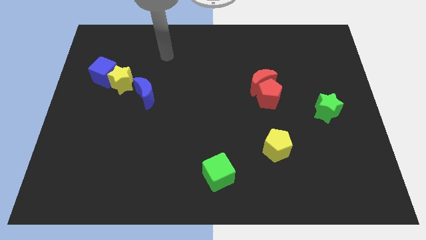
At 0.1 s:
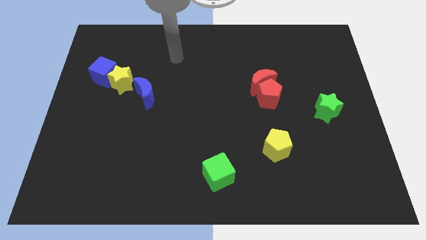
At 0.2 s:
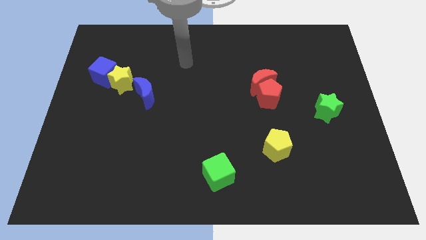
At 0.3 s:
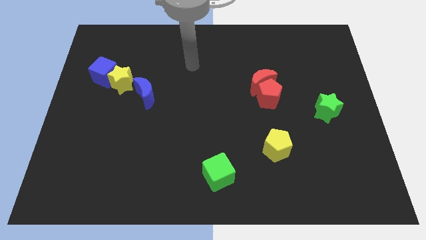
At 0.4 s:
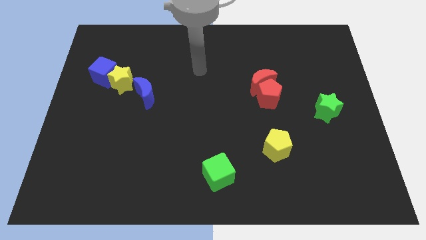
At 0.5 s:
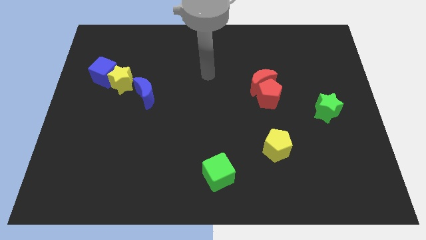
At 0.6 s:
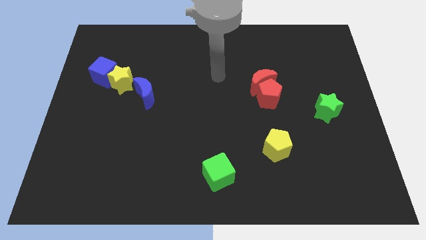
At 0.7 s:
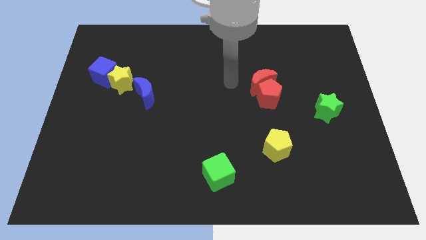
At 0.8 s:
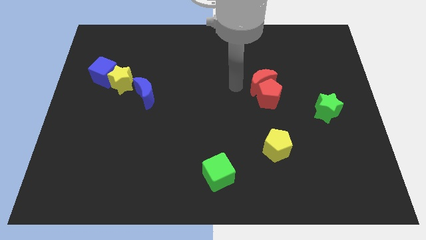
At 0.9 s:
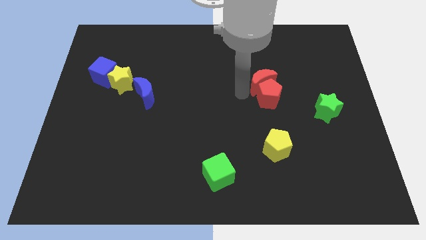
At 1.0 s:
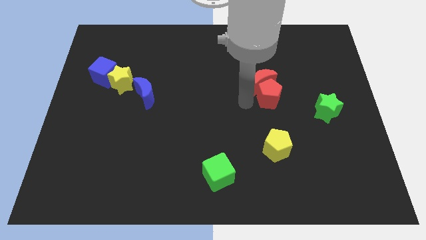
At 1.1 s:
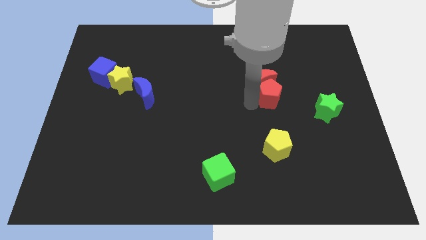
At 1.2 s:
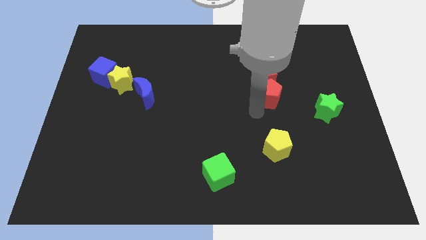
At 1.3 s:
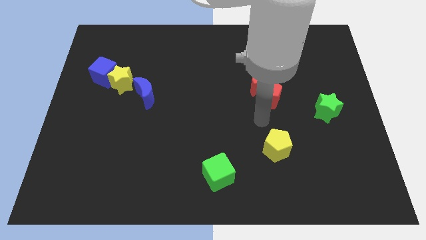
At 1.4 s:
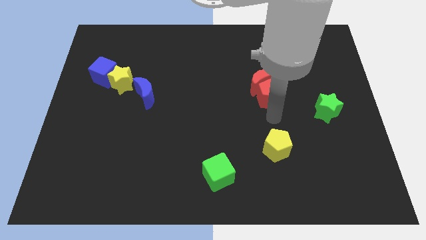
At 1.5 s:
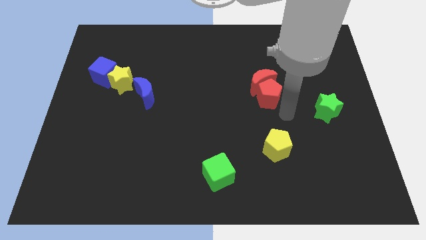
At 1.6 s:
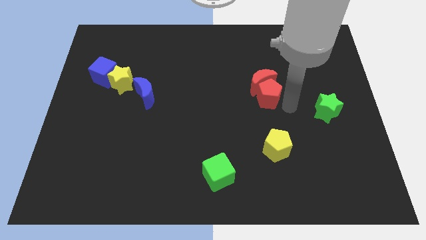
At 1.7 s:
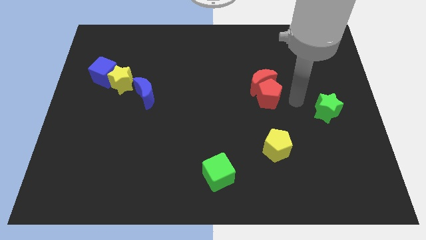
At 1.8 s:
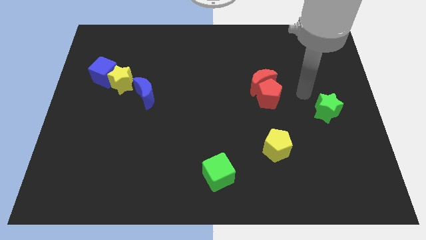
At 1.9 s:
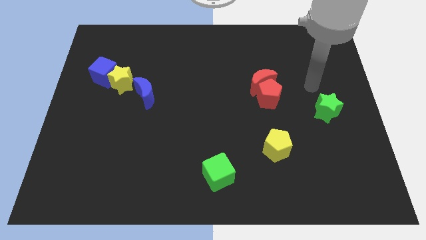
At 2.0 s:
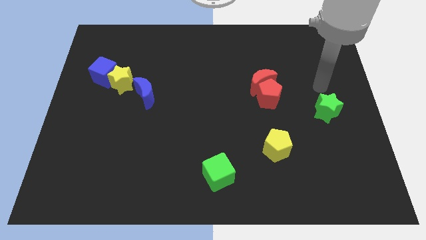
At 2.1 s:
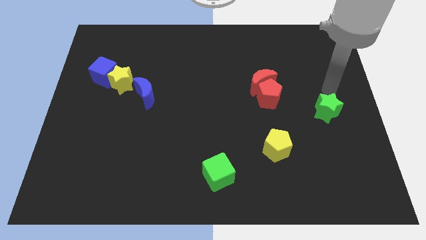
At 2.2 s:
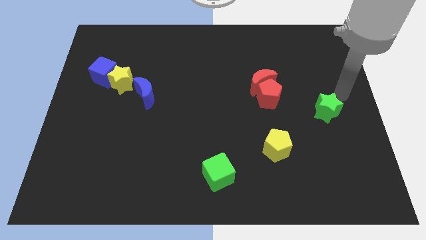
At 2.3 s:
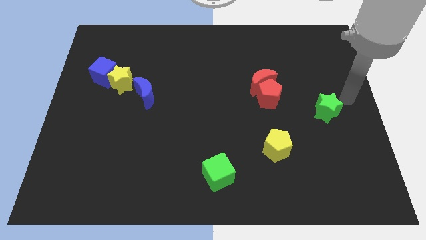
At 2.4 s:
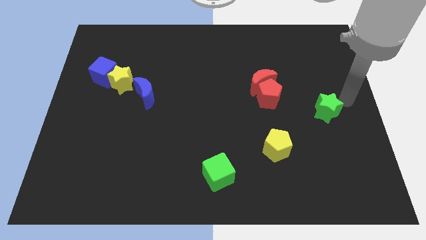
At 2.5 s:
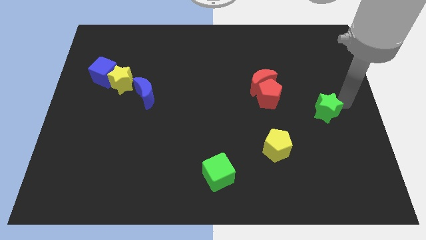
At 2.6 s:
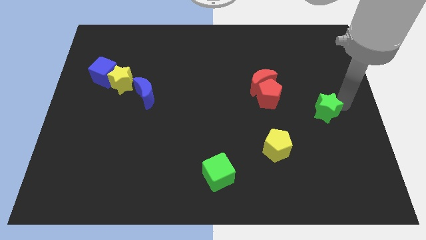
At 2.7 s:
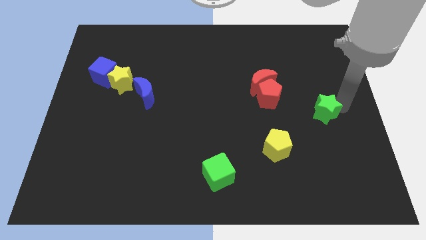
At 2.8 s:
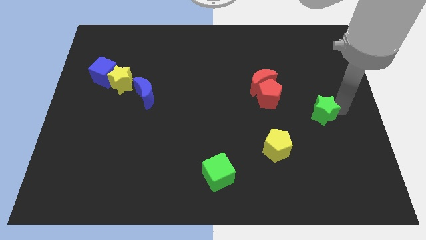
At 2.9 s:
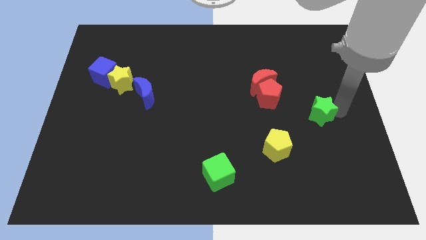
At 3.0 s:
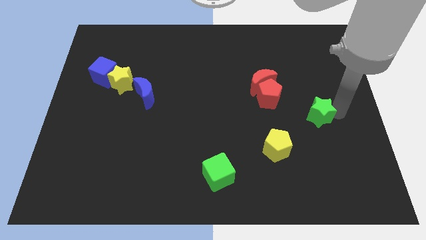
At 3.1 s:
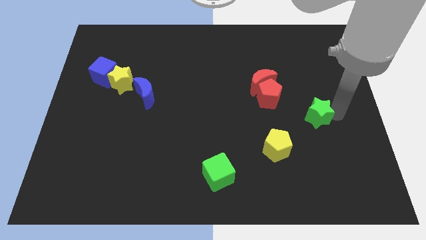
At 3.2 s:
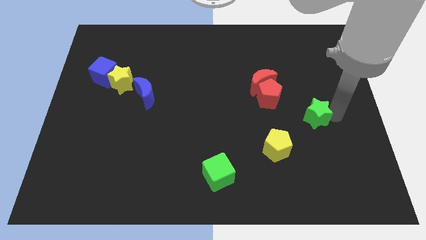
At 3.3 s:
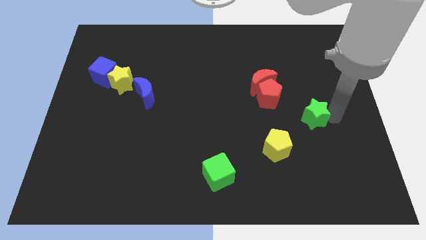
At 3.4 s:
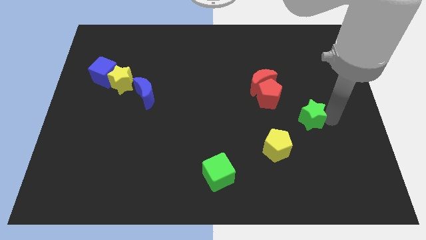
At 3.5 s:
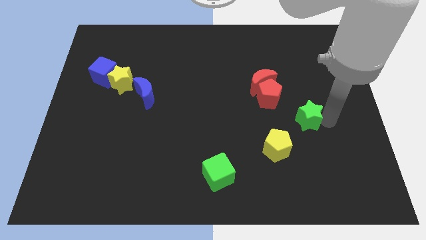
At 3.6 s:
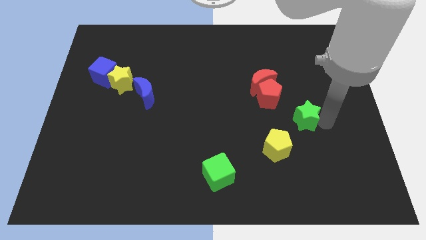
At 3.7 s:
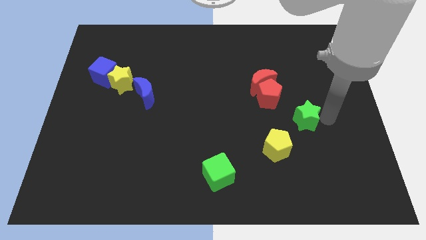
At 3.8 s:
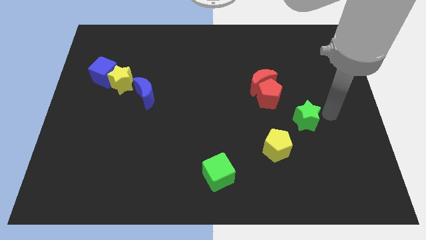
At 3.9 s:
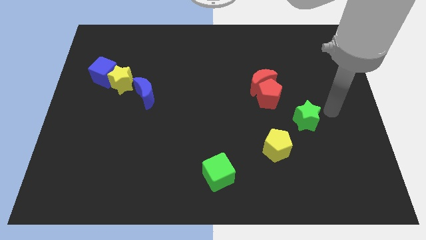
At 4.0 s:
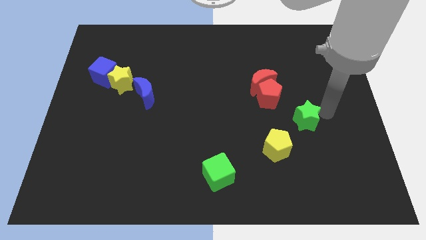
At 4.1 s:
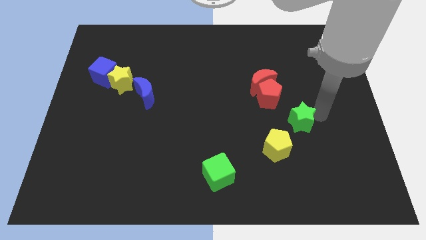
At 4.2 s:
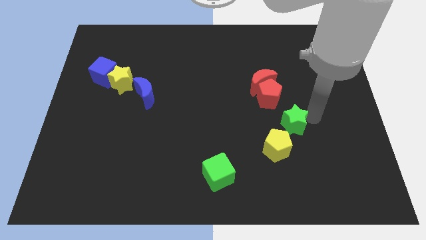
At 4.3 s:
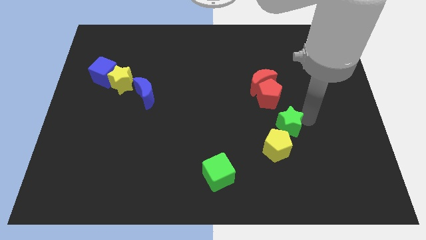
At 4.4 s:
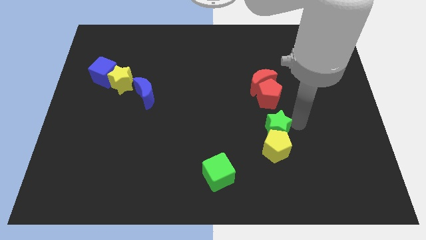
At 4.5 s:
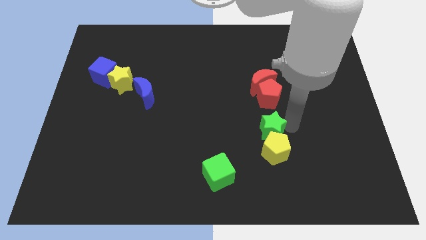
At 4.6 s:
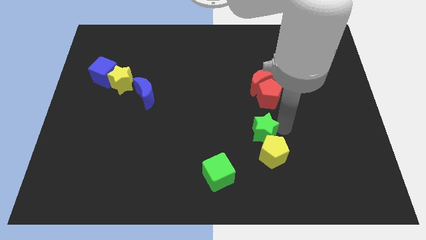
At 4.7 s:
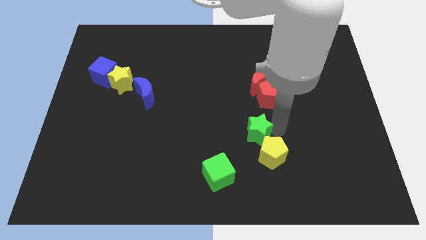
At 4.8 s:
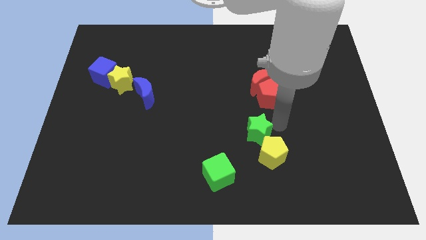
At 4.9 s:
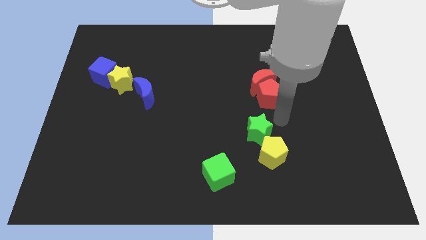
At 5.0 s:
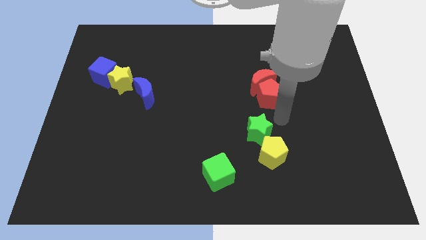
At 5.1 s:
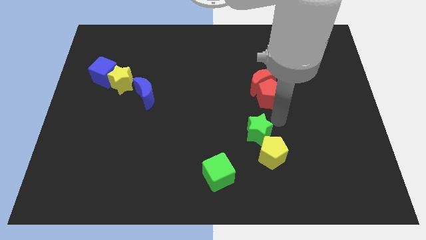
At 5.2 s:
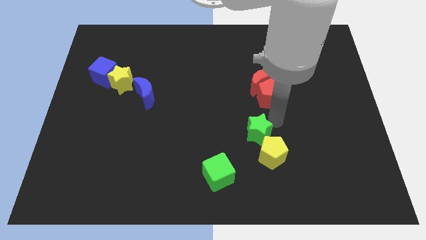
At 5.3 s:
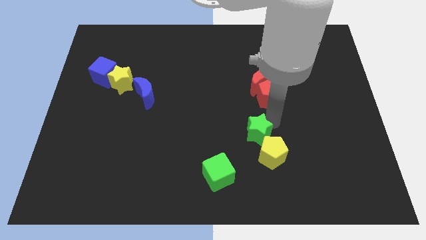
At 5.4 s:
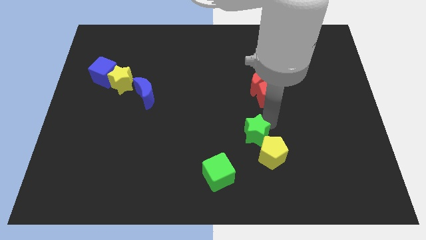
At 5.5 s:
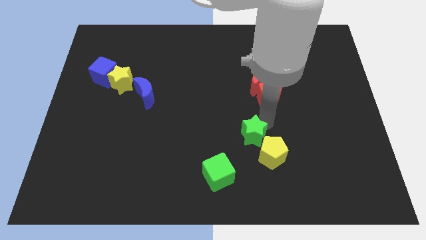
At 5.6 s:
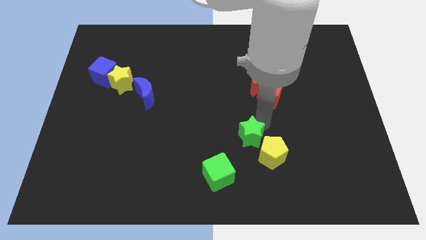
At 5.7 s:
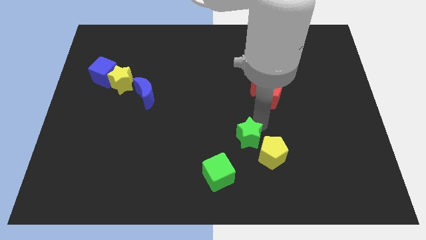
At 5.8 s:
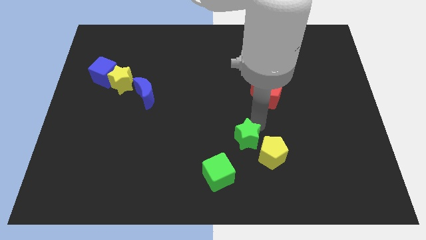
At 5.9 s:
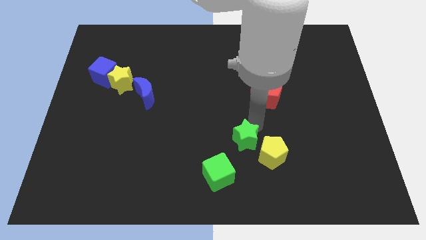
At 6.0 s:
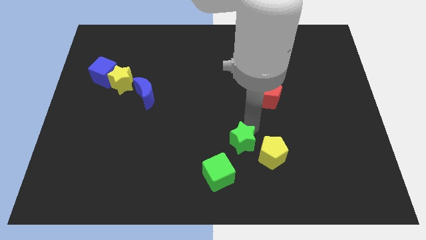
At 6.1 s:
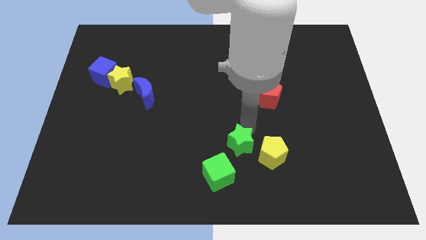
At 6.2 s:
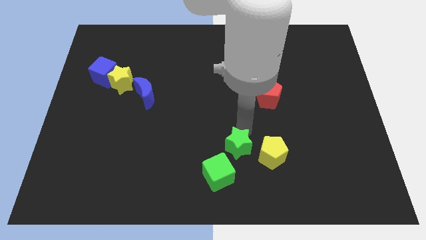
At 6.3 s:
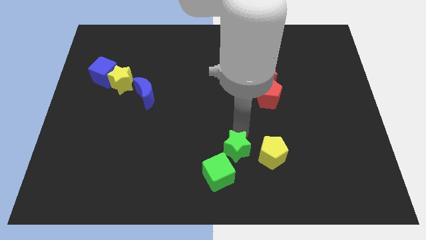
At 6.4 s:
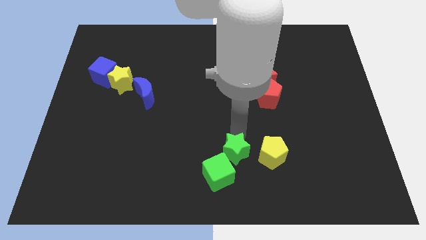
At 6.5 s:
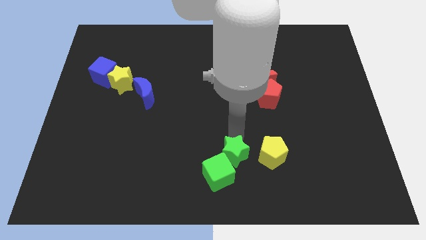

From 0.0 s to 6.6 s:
push the green star towards the green cube

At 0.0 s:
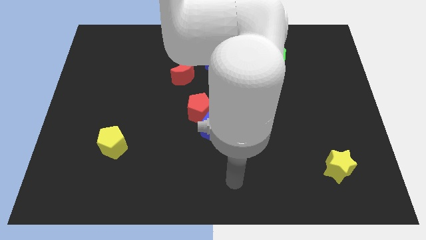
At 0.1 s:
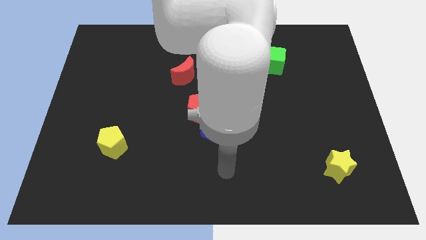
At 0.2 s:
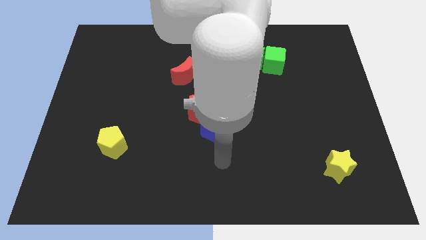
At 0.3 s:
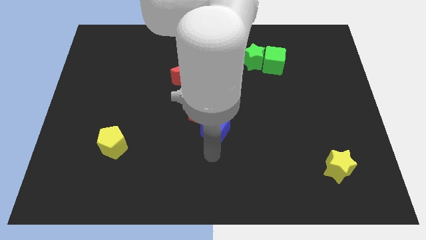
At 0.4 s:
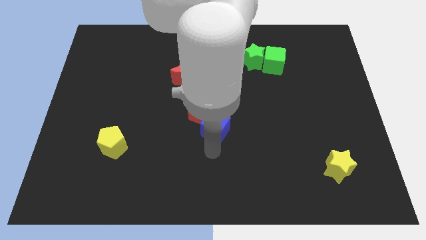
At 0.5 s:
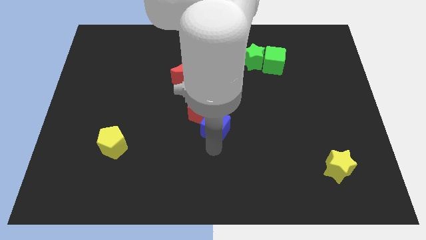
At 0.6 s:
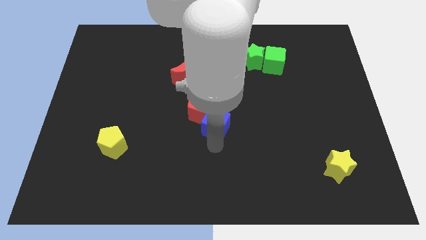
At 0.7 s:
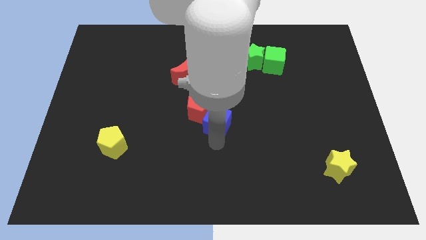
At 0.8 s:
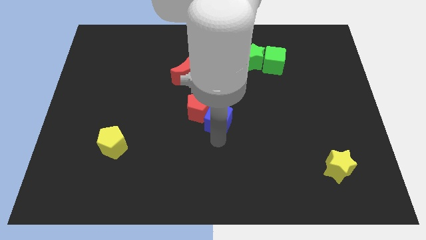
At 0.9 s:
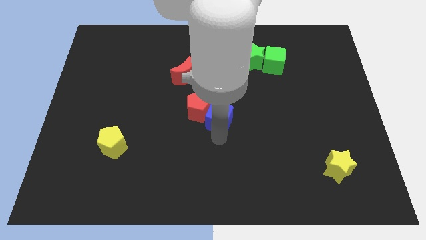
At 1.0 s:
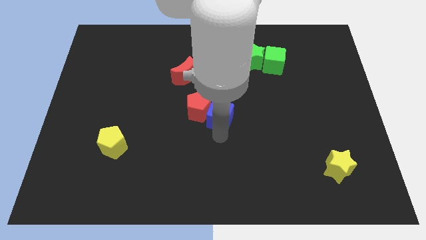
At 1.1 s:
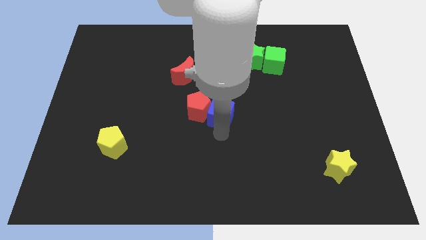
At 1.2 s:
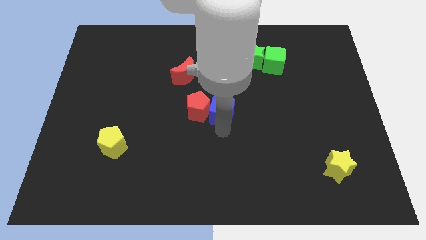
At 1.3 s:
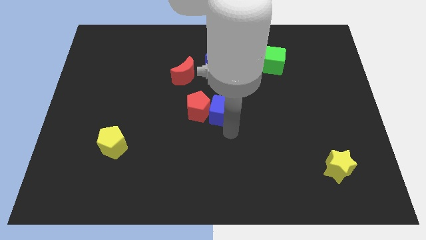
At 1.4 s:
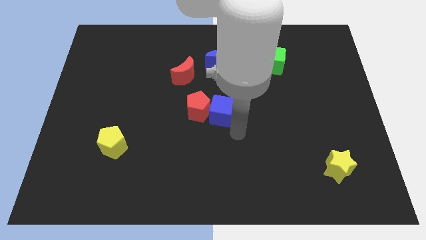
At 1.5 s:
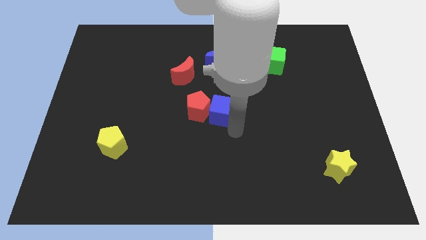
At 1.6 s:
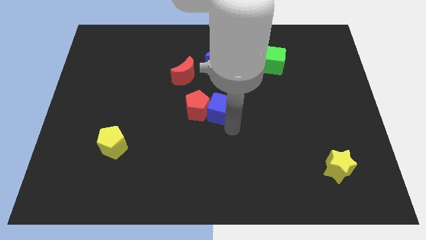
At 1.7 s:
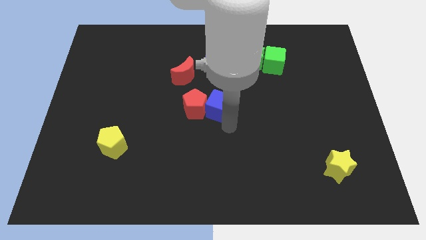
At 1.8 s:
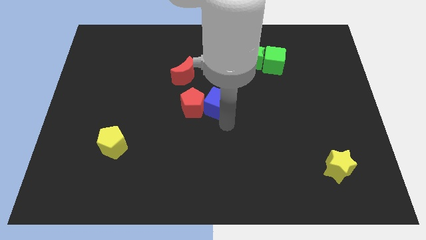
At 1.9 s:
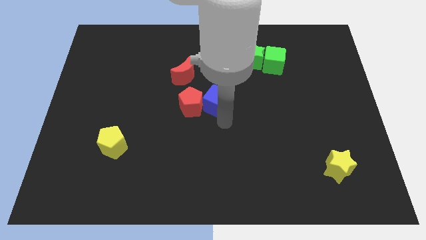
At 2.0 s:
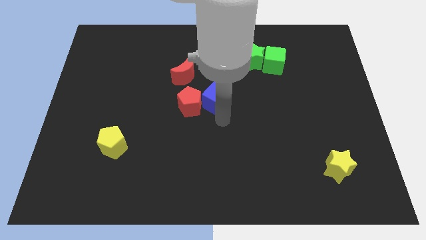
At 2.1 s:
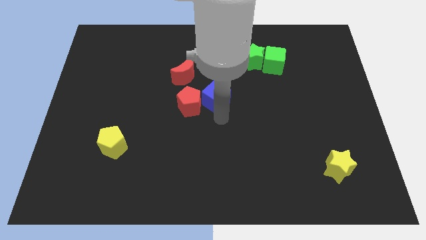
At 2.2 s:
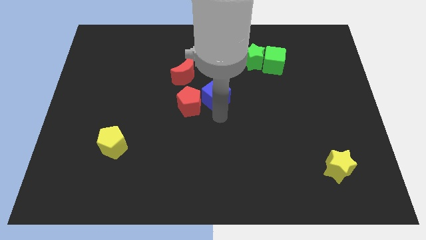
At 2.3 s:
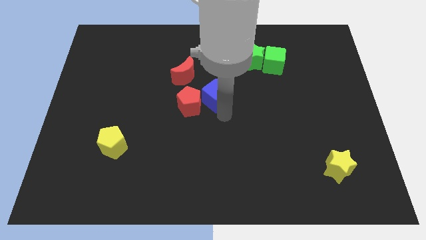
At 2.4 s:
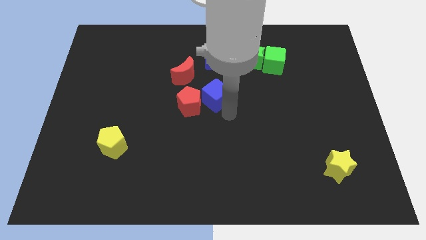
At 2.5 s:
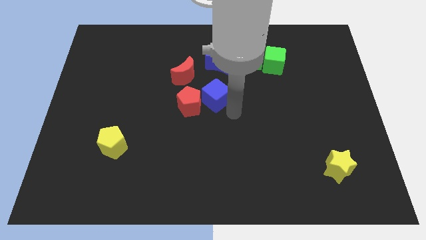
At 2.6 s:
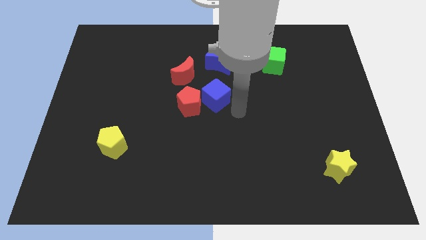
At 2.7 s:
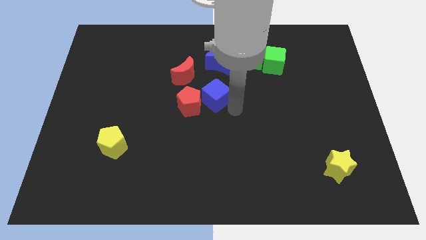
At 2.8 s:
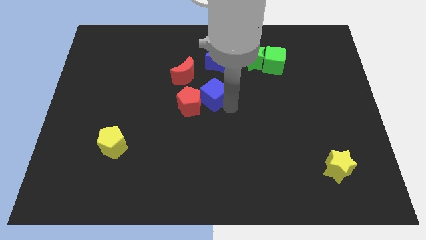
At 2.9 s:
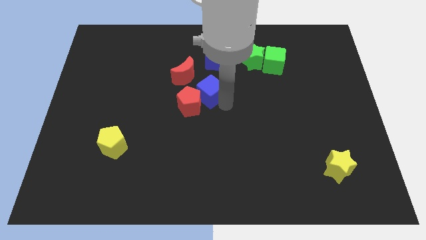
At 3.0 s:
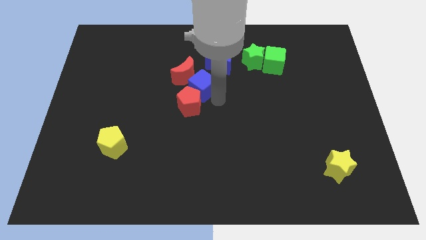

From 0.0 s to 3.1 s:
push the blue cube towards the red moon
